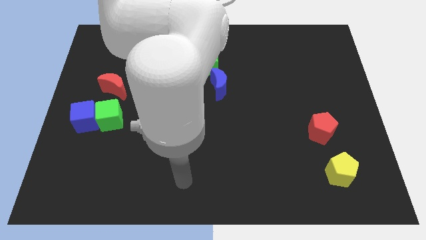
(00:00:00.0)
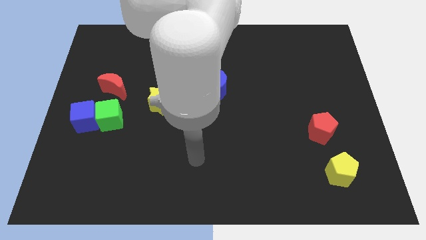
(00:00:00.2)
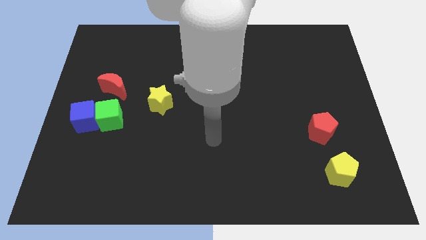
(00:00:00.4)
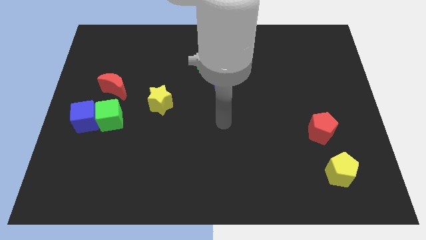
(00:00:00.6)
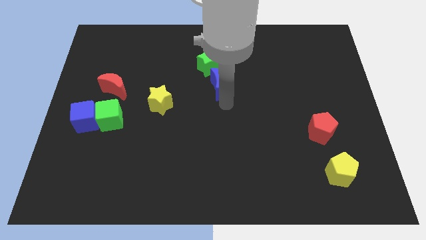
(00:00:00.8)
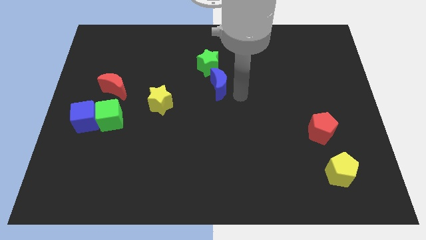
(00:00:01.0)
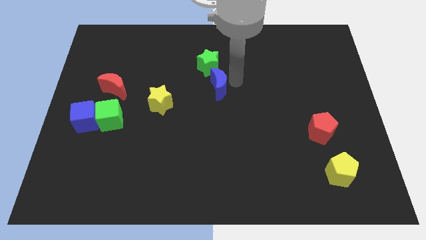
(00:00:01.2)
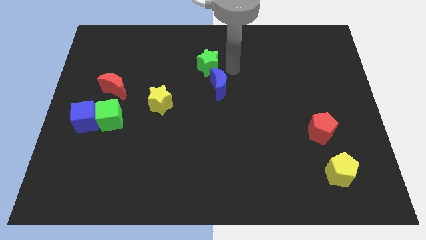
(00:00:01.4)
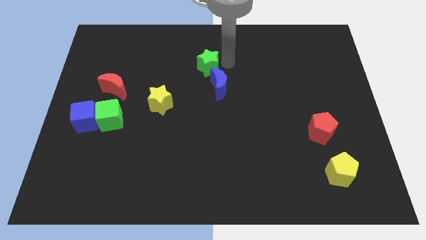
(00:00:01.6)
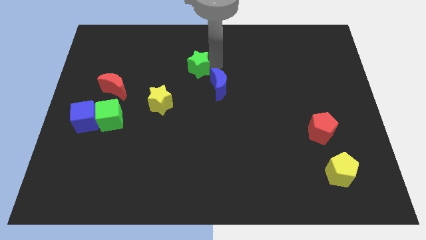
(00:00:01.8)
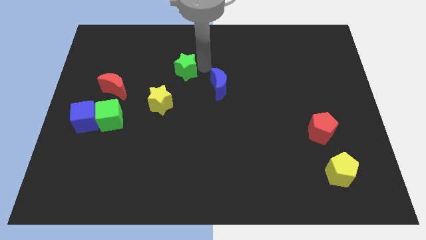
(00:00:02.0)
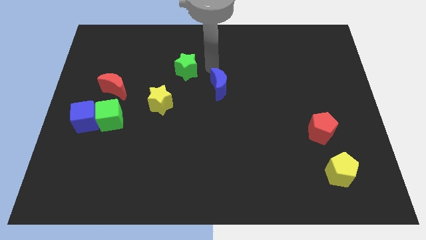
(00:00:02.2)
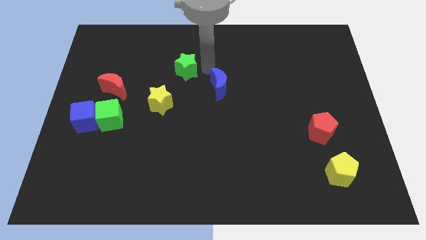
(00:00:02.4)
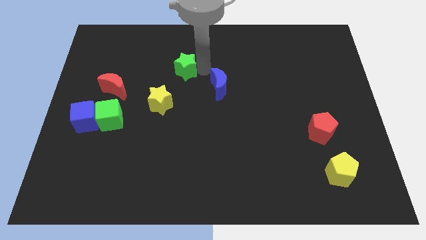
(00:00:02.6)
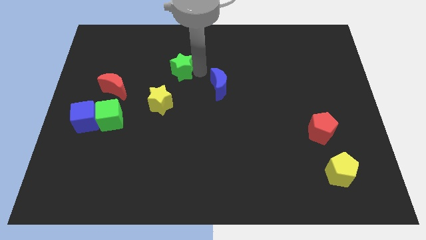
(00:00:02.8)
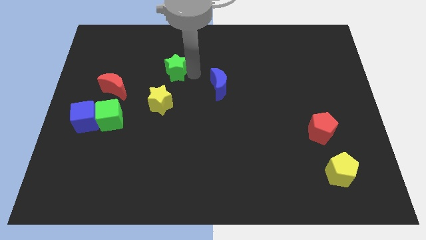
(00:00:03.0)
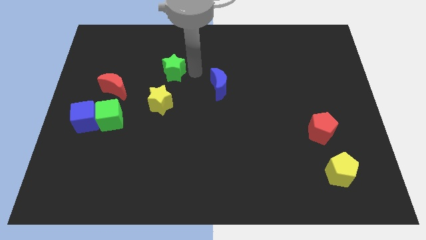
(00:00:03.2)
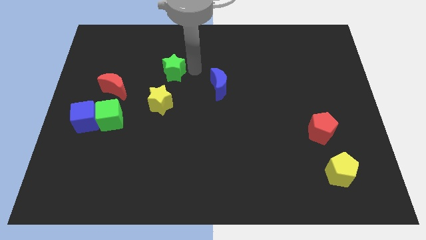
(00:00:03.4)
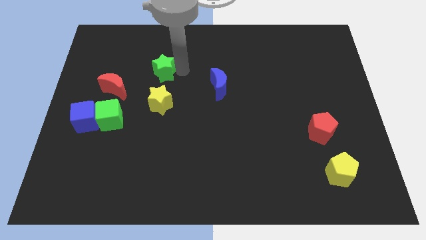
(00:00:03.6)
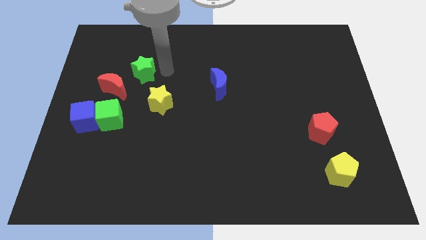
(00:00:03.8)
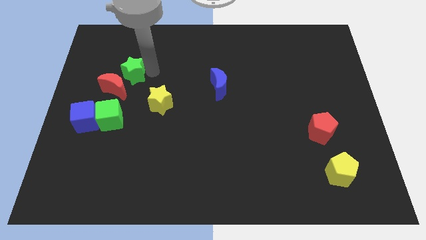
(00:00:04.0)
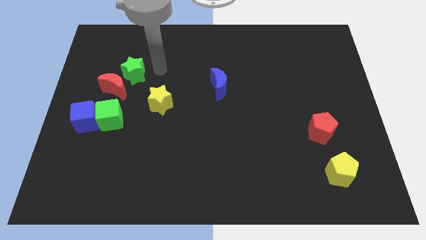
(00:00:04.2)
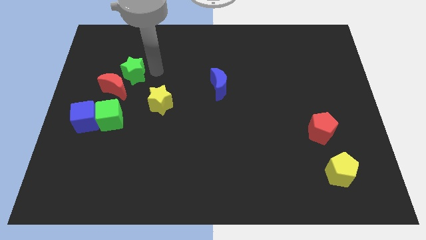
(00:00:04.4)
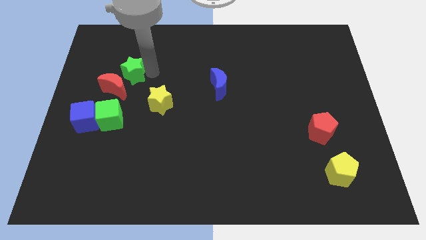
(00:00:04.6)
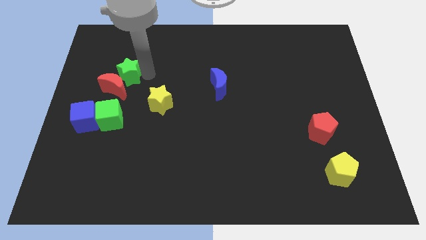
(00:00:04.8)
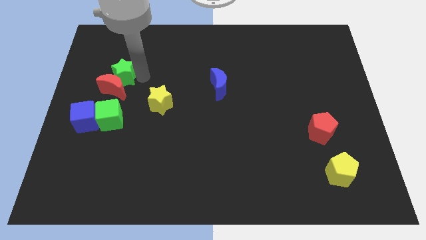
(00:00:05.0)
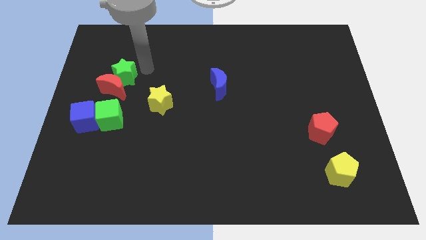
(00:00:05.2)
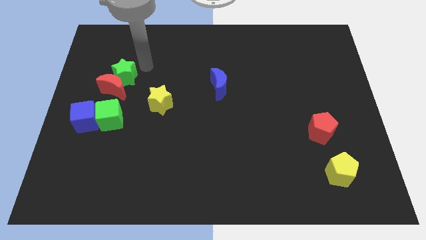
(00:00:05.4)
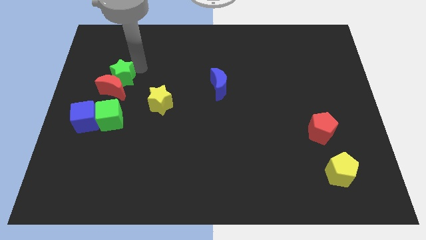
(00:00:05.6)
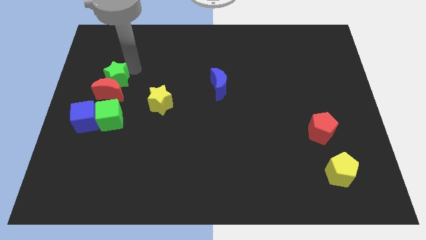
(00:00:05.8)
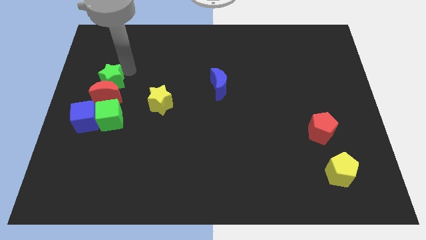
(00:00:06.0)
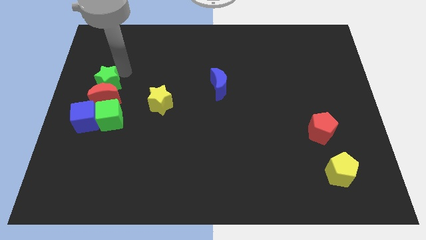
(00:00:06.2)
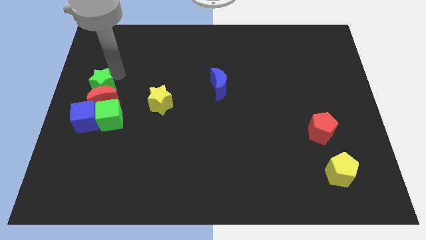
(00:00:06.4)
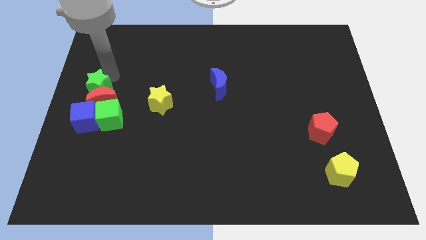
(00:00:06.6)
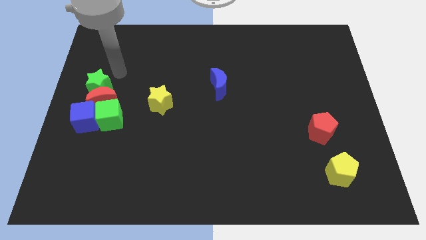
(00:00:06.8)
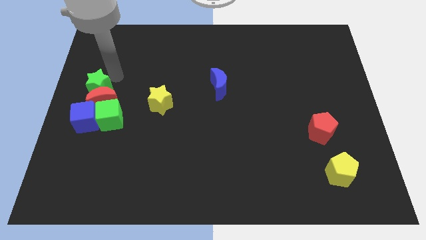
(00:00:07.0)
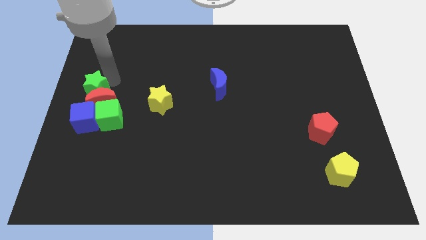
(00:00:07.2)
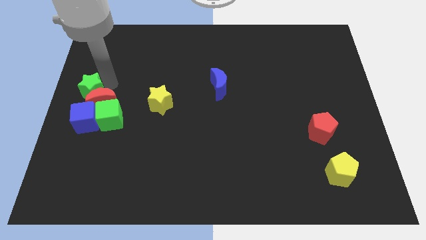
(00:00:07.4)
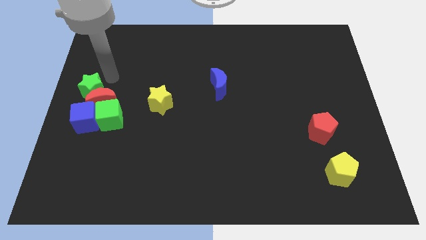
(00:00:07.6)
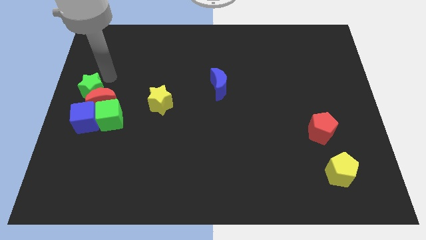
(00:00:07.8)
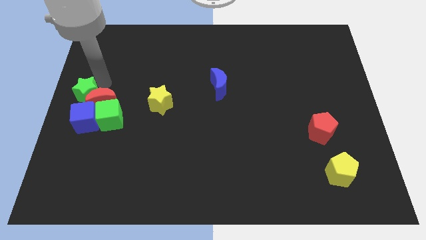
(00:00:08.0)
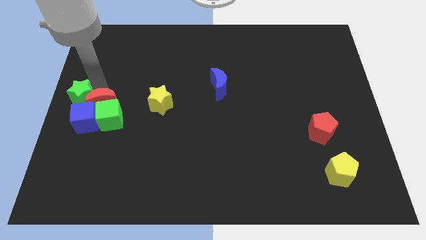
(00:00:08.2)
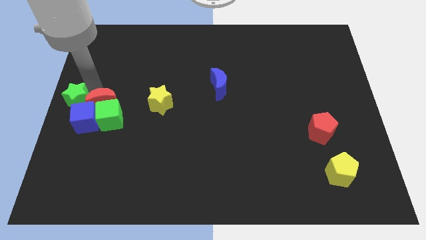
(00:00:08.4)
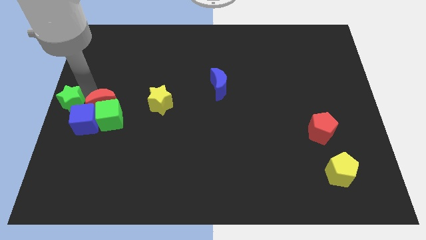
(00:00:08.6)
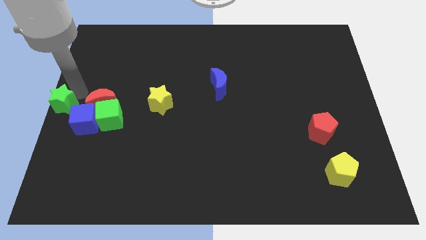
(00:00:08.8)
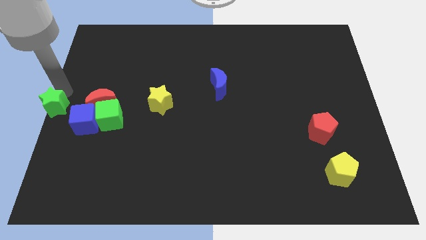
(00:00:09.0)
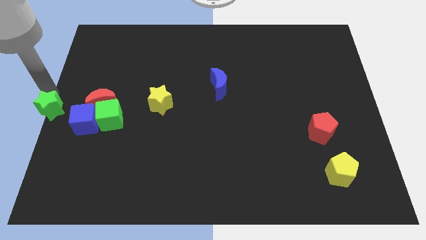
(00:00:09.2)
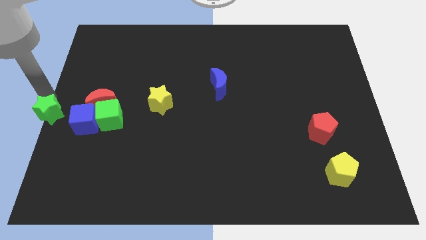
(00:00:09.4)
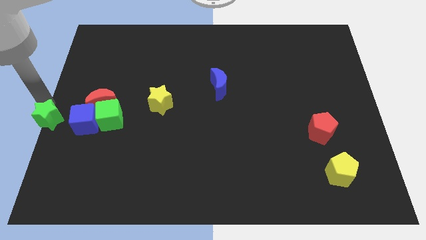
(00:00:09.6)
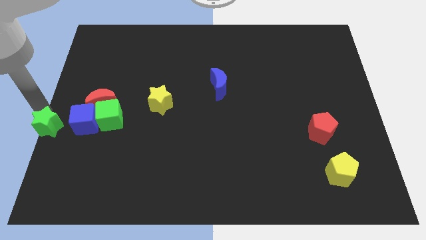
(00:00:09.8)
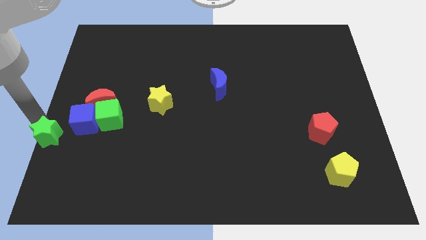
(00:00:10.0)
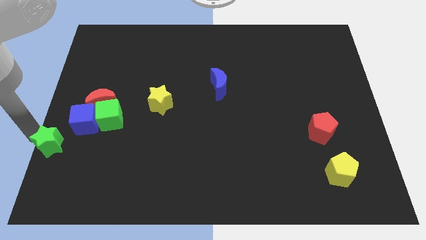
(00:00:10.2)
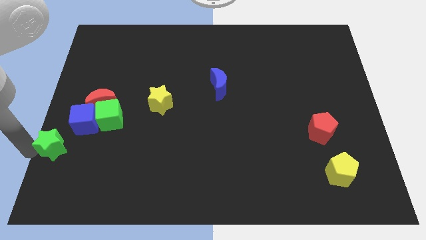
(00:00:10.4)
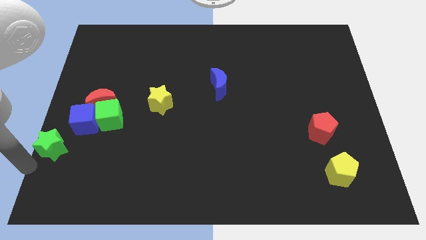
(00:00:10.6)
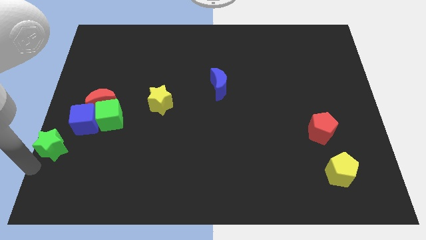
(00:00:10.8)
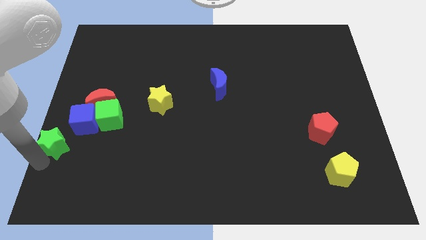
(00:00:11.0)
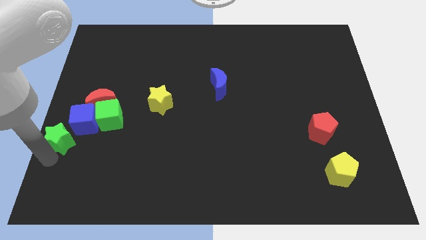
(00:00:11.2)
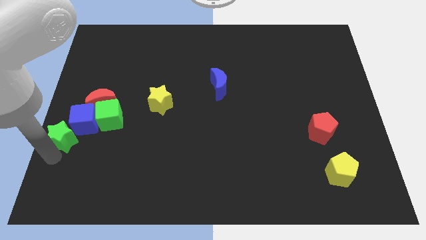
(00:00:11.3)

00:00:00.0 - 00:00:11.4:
push the green star to the blue cube

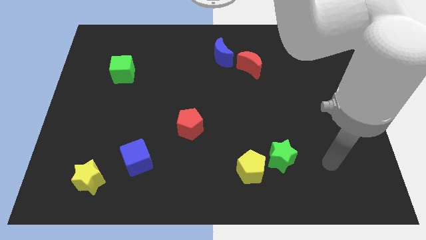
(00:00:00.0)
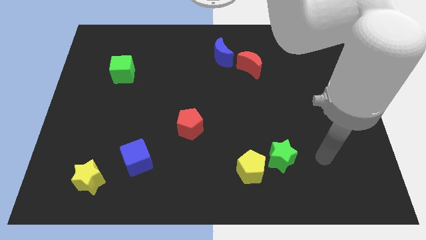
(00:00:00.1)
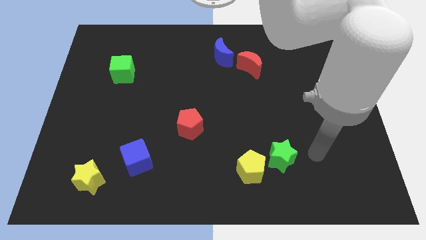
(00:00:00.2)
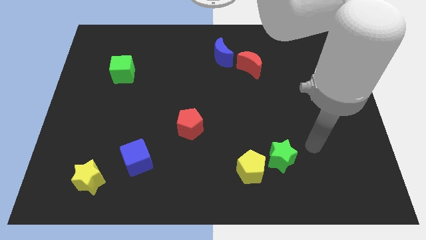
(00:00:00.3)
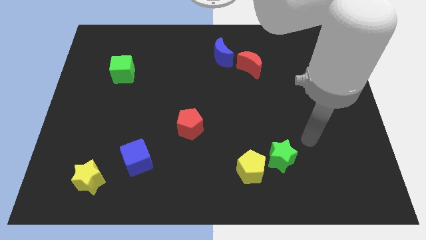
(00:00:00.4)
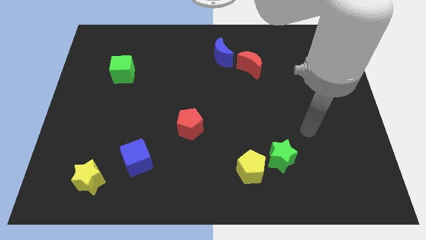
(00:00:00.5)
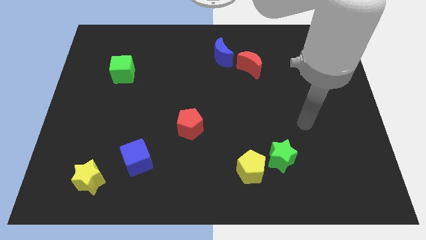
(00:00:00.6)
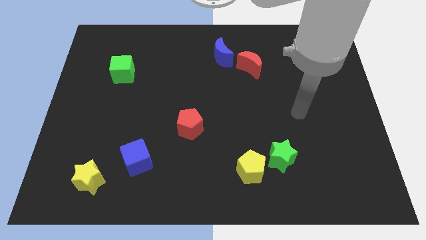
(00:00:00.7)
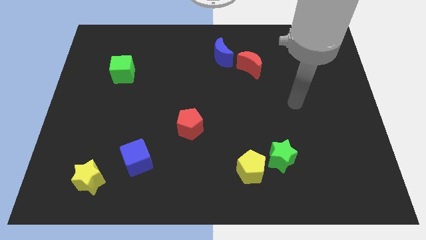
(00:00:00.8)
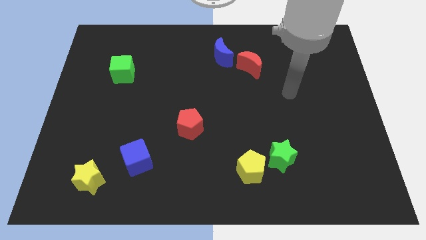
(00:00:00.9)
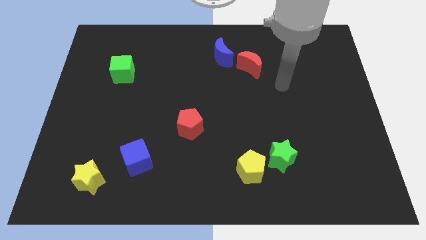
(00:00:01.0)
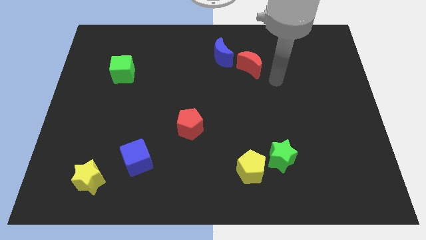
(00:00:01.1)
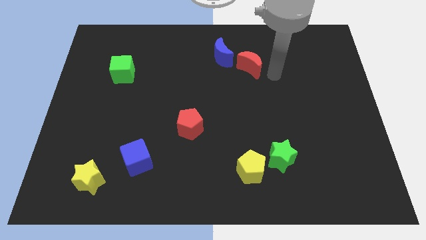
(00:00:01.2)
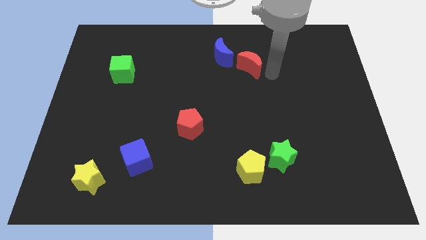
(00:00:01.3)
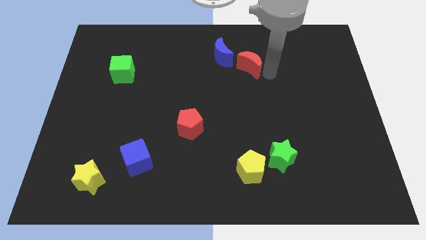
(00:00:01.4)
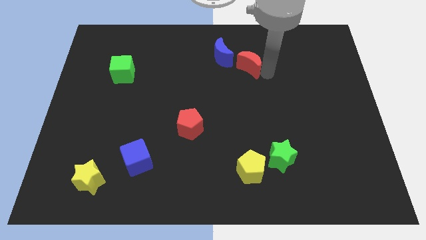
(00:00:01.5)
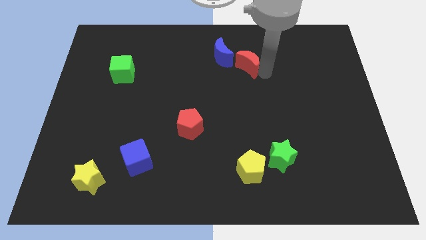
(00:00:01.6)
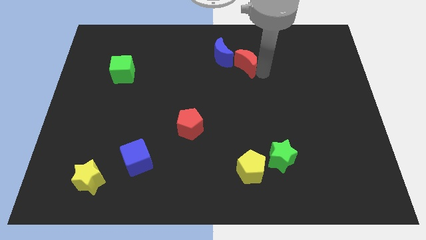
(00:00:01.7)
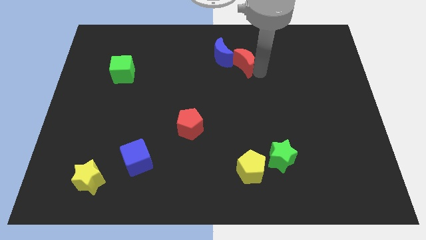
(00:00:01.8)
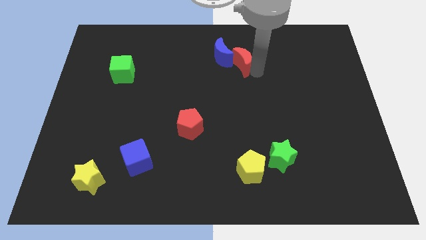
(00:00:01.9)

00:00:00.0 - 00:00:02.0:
move the red moon to the blue moon
